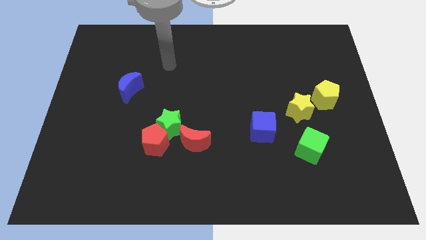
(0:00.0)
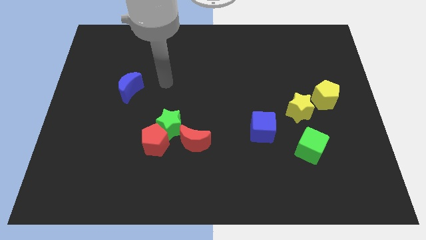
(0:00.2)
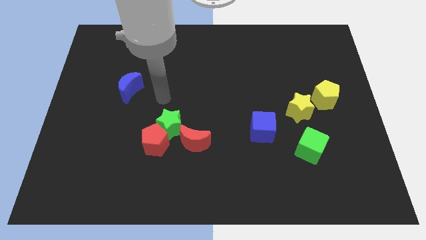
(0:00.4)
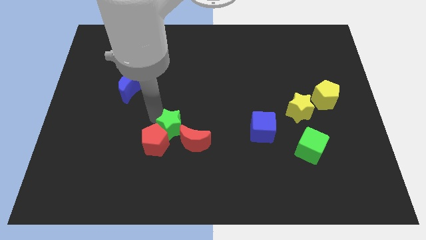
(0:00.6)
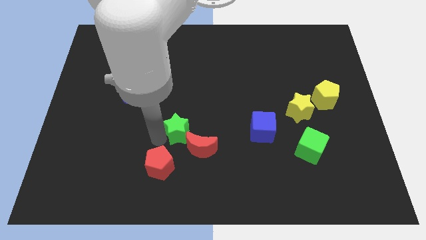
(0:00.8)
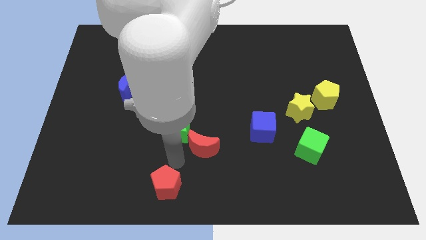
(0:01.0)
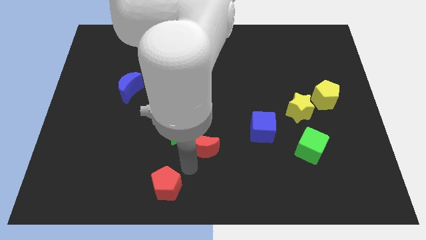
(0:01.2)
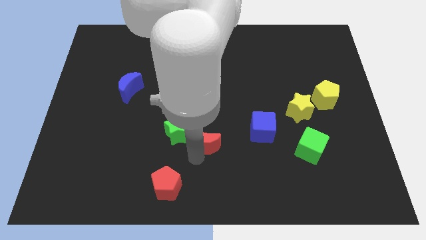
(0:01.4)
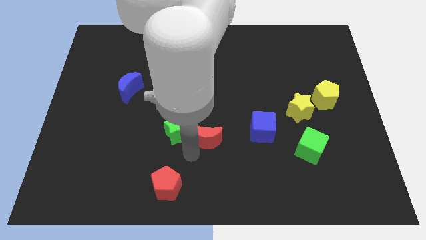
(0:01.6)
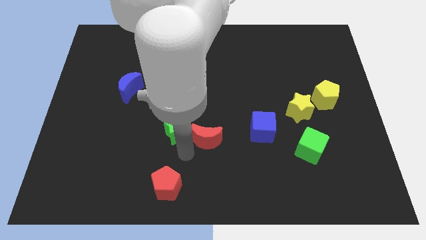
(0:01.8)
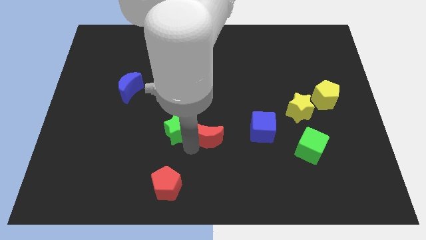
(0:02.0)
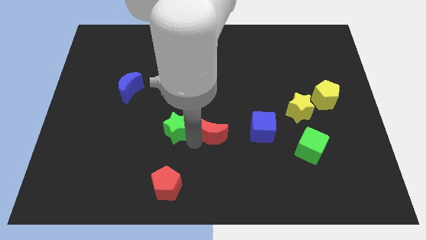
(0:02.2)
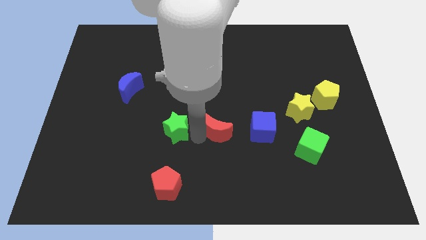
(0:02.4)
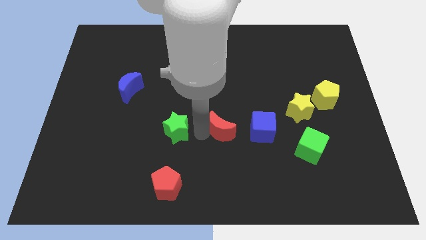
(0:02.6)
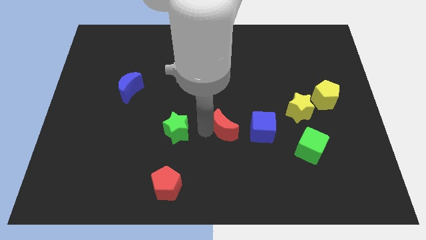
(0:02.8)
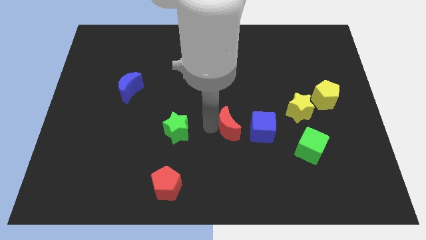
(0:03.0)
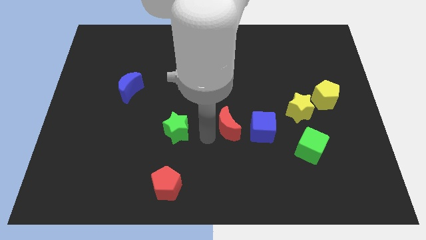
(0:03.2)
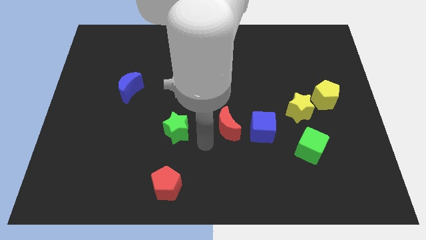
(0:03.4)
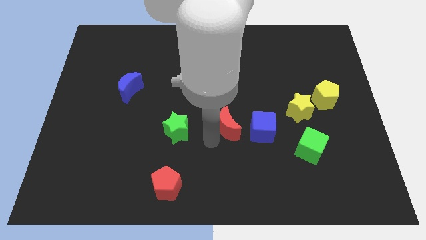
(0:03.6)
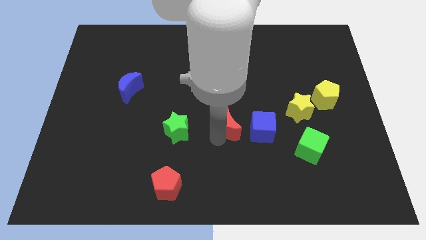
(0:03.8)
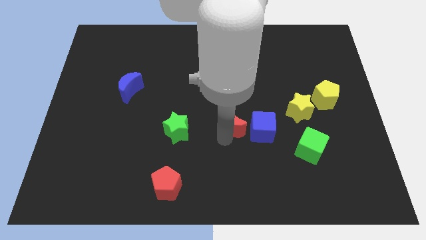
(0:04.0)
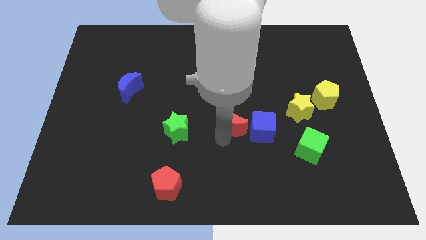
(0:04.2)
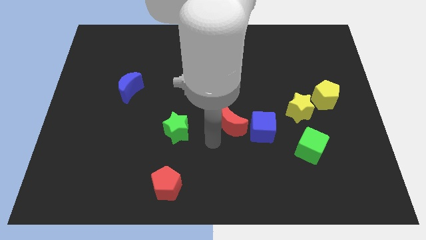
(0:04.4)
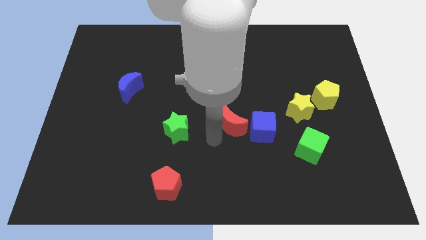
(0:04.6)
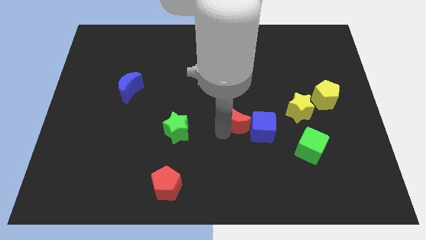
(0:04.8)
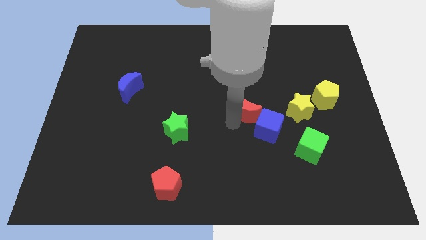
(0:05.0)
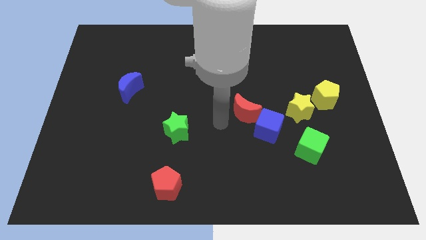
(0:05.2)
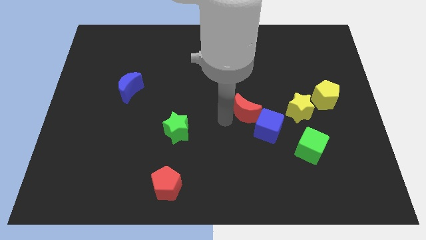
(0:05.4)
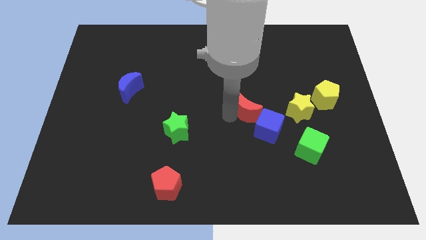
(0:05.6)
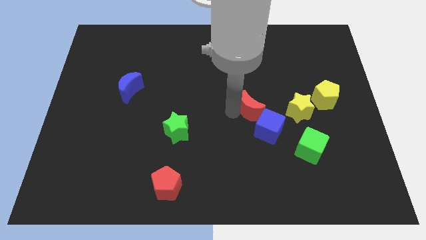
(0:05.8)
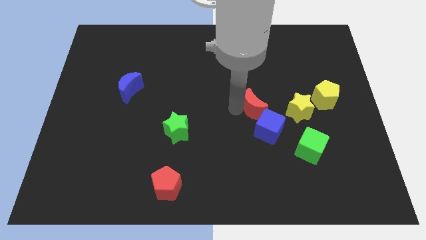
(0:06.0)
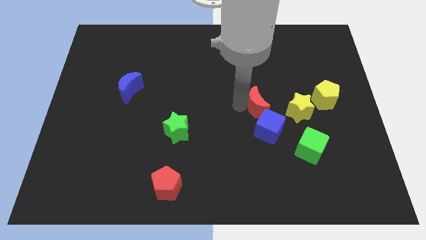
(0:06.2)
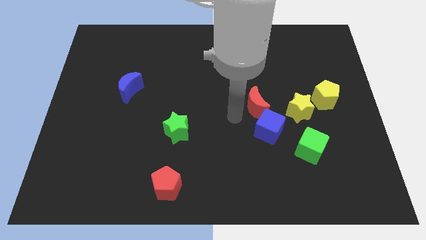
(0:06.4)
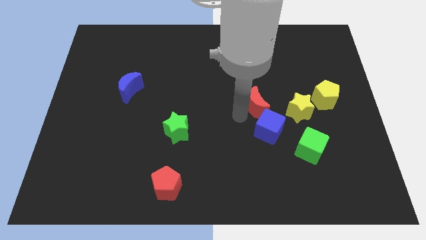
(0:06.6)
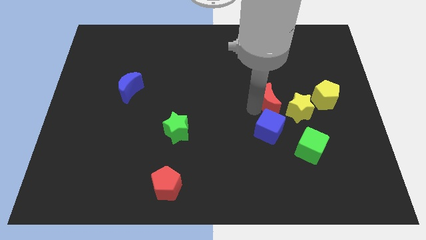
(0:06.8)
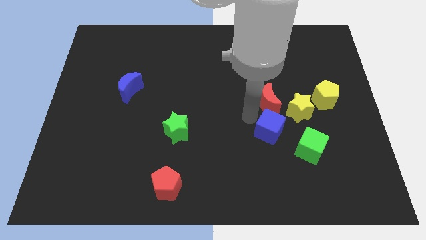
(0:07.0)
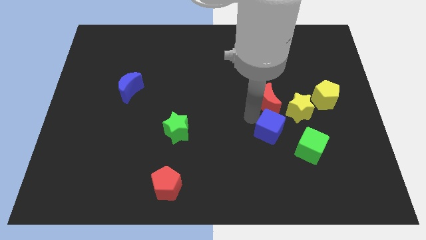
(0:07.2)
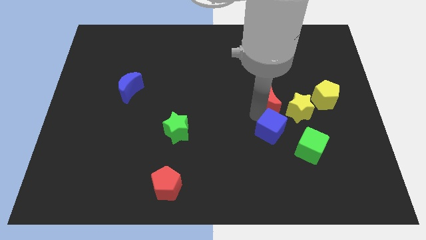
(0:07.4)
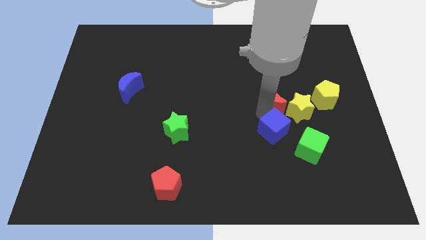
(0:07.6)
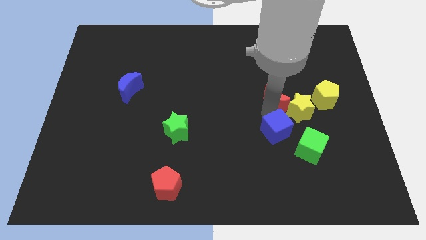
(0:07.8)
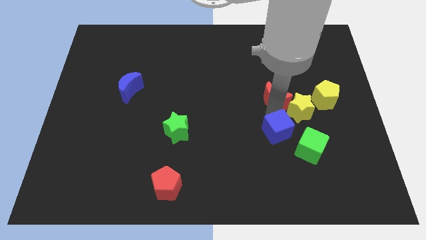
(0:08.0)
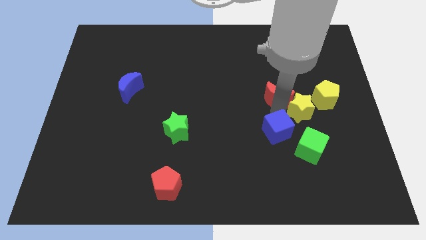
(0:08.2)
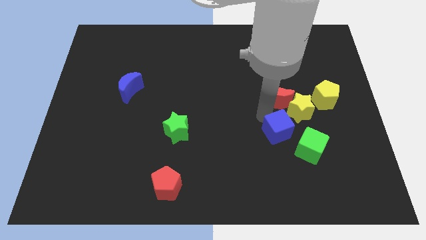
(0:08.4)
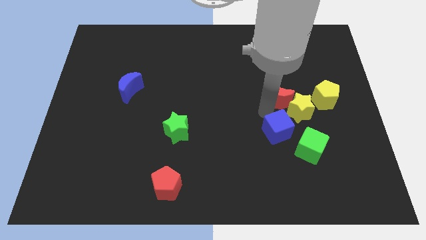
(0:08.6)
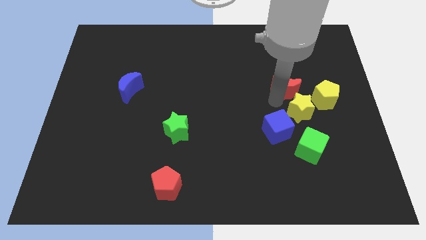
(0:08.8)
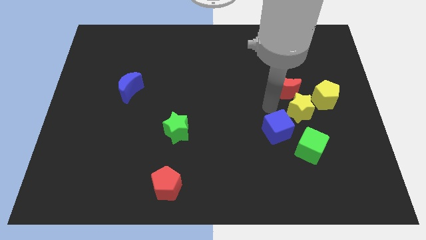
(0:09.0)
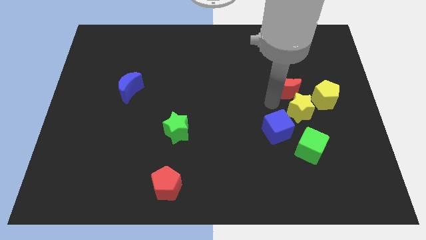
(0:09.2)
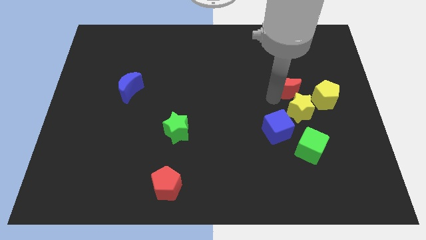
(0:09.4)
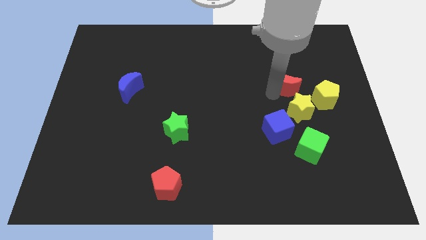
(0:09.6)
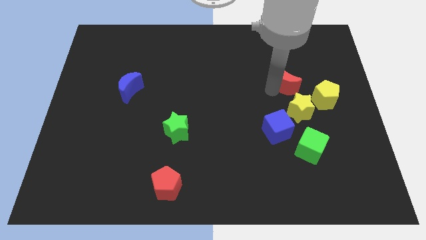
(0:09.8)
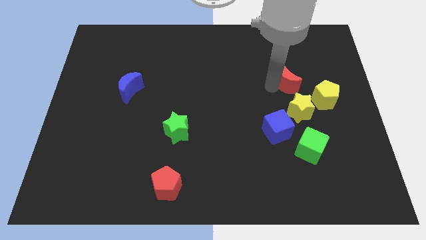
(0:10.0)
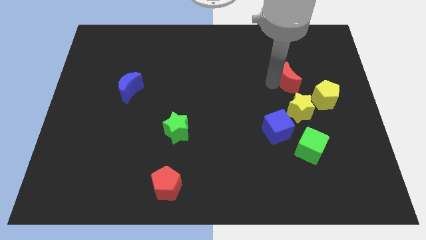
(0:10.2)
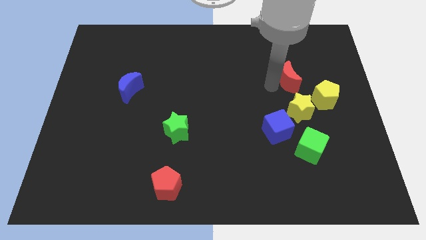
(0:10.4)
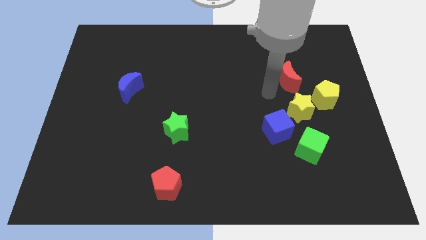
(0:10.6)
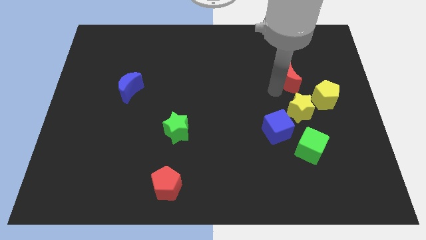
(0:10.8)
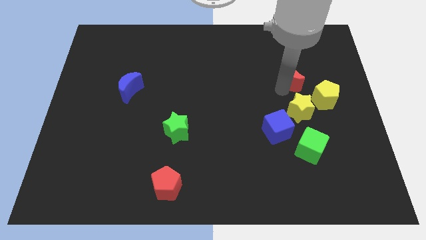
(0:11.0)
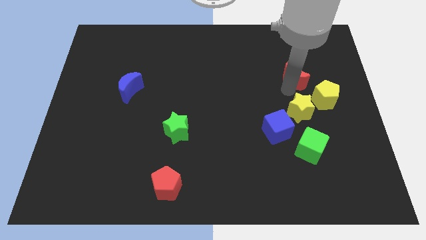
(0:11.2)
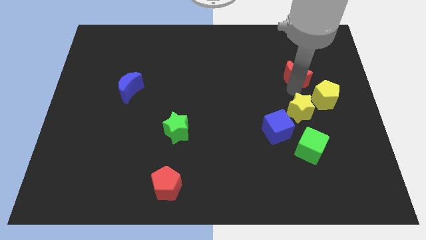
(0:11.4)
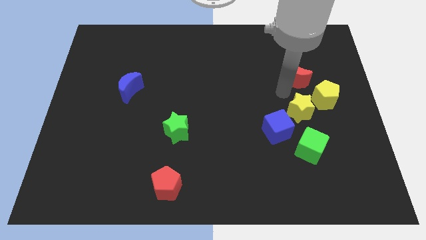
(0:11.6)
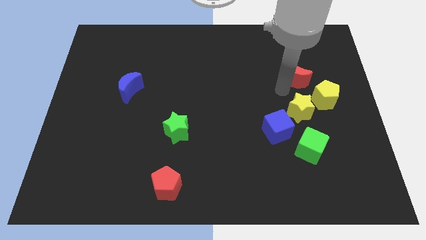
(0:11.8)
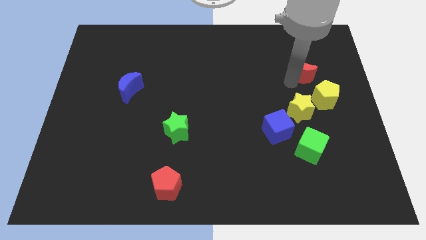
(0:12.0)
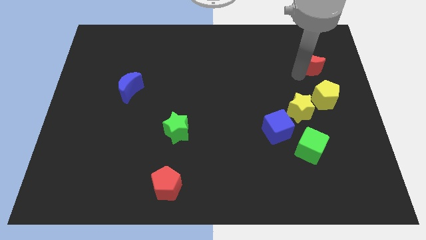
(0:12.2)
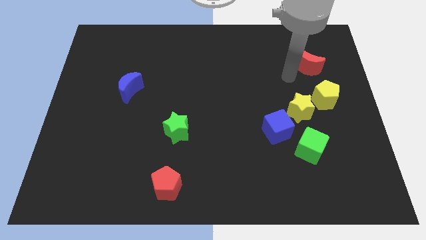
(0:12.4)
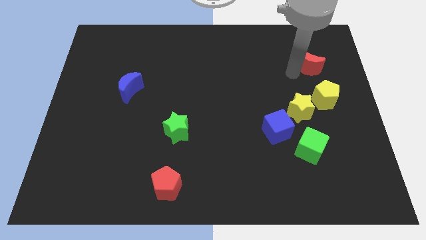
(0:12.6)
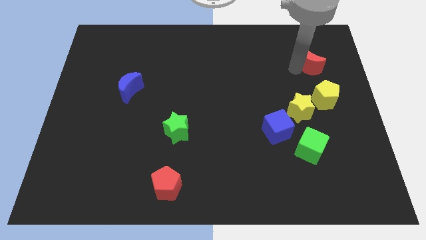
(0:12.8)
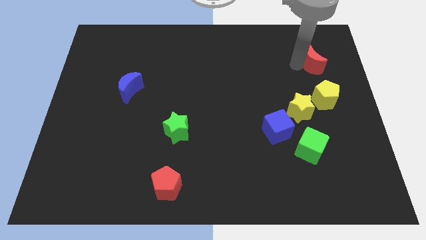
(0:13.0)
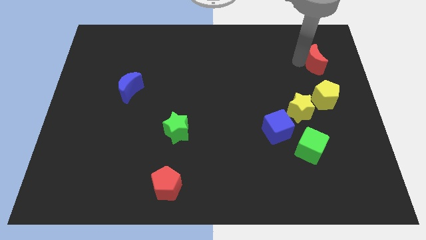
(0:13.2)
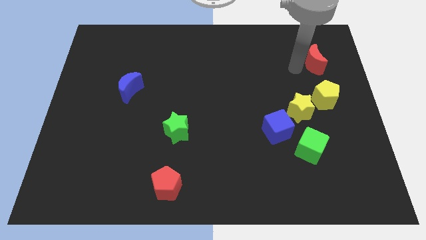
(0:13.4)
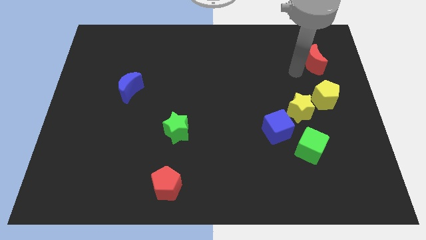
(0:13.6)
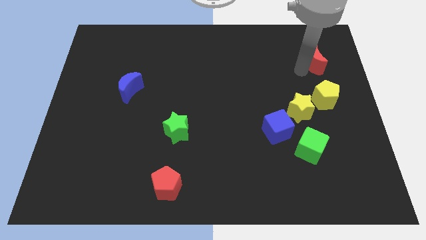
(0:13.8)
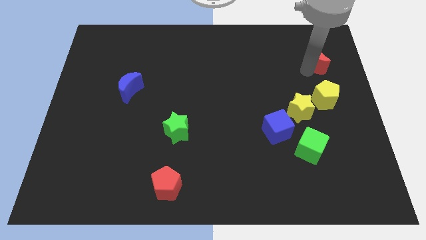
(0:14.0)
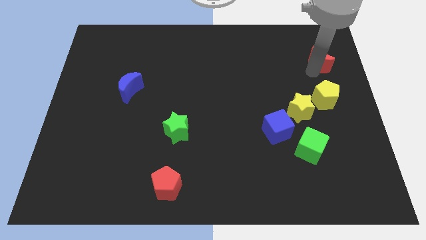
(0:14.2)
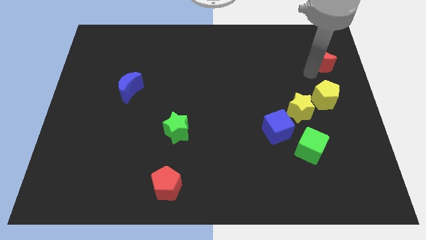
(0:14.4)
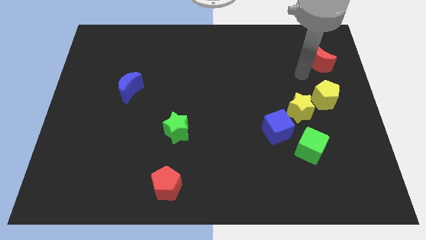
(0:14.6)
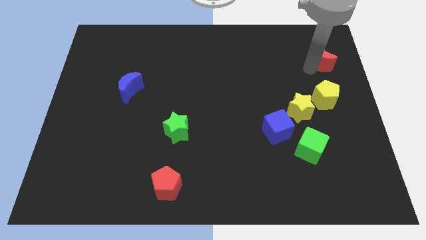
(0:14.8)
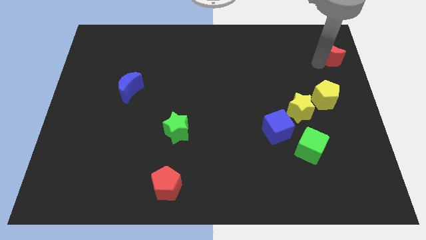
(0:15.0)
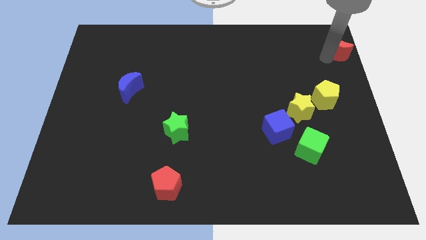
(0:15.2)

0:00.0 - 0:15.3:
put the red moon to the top right
